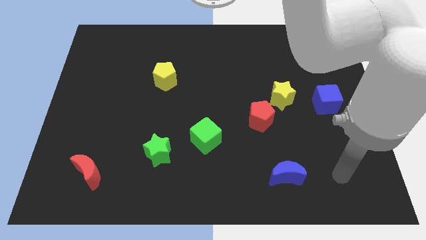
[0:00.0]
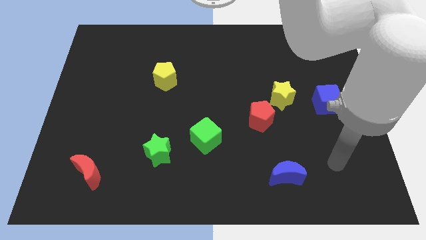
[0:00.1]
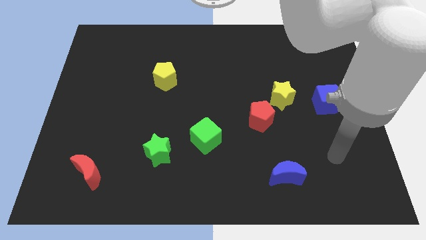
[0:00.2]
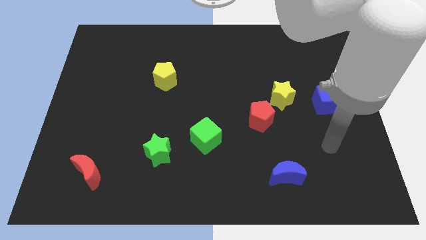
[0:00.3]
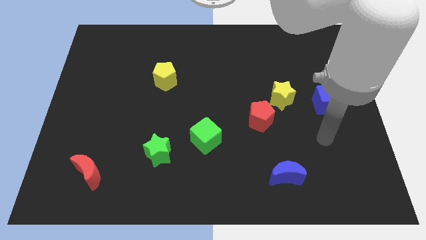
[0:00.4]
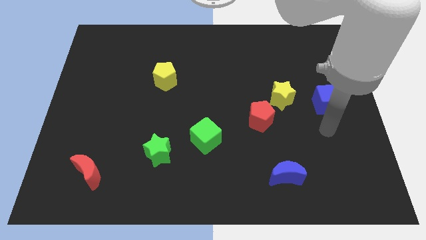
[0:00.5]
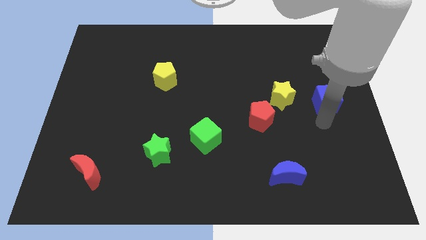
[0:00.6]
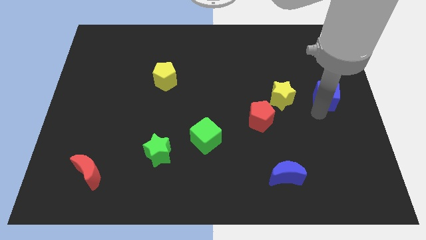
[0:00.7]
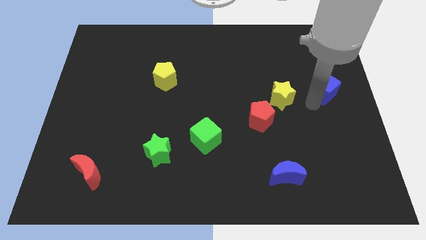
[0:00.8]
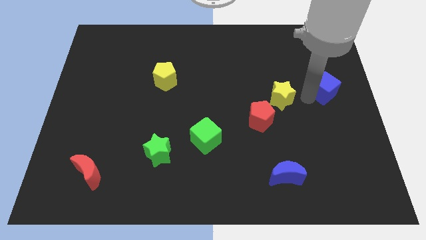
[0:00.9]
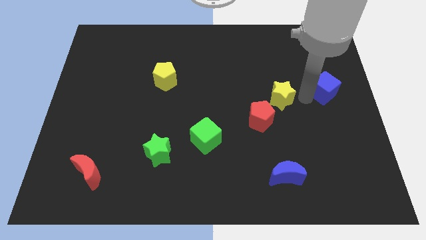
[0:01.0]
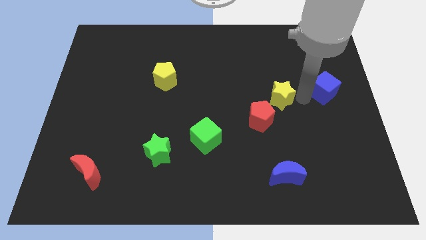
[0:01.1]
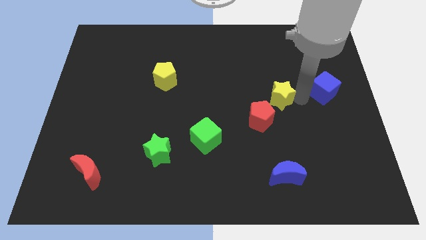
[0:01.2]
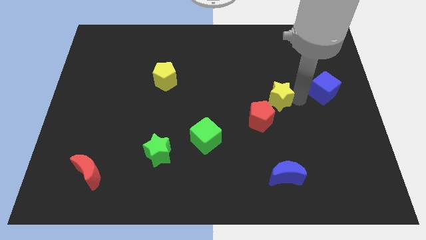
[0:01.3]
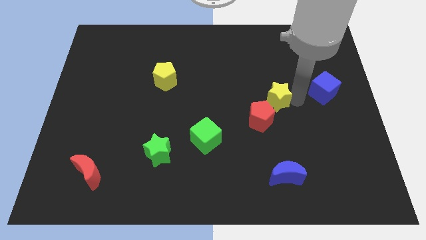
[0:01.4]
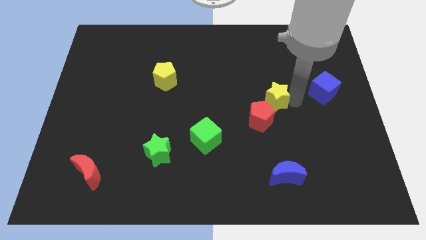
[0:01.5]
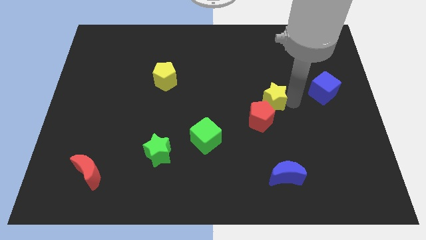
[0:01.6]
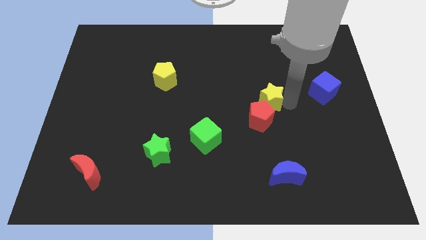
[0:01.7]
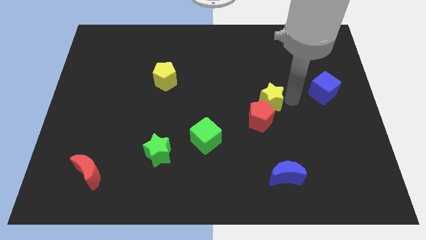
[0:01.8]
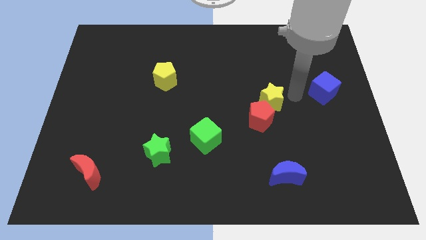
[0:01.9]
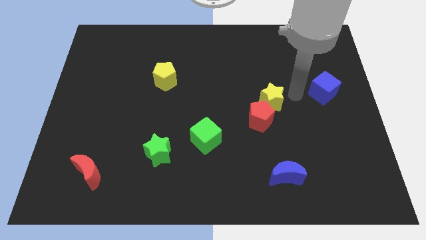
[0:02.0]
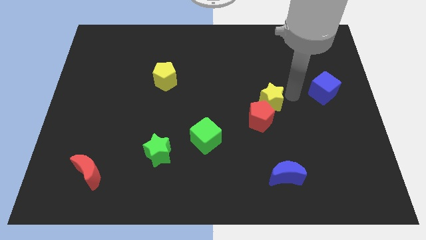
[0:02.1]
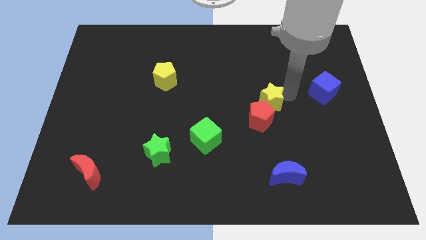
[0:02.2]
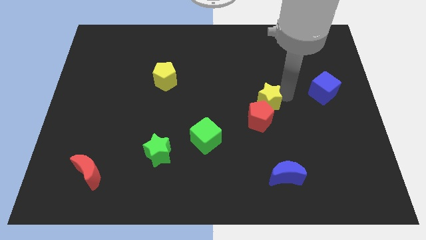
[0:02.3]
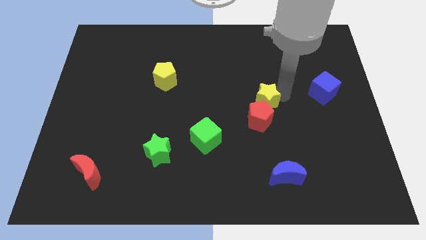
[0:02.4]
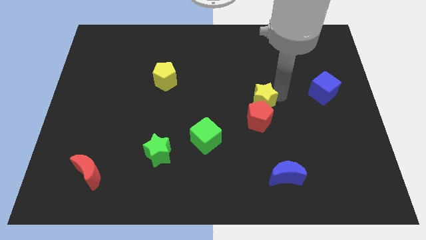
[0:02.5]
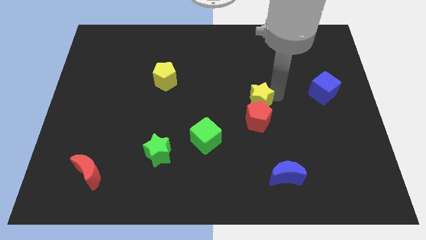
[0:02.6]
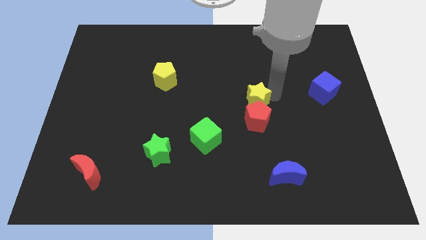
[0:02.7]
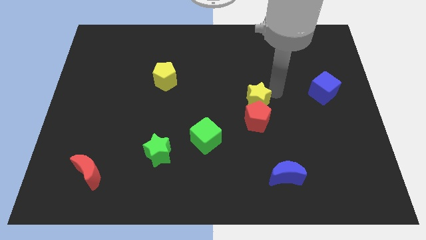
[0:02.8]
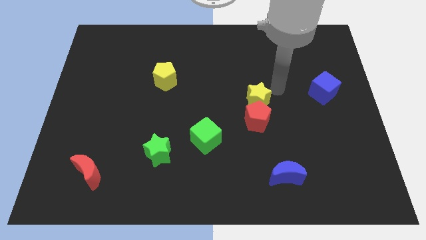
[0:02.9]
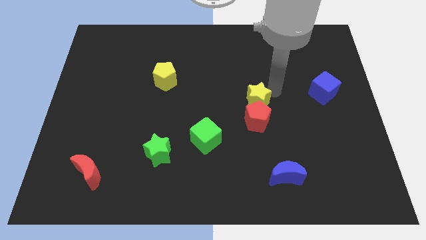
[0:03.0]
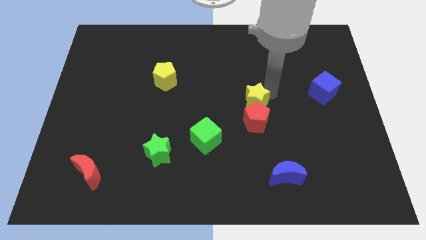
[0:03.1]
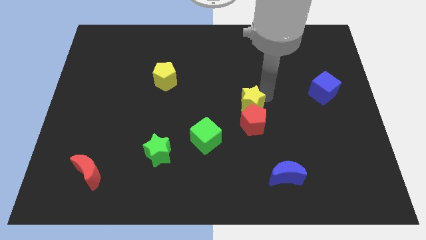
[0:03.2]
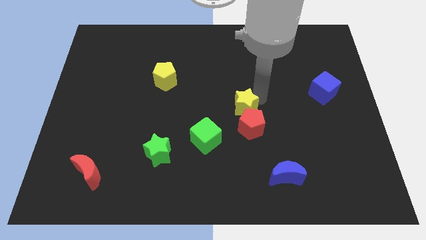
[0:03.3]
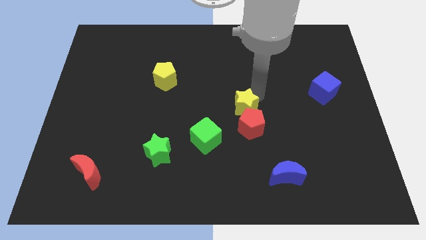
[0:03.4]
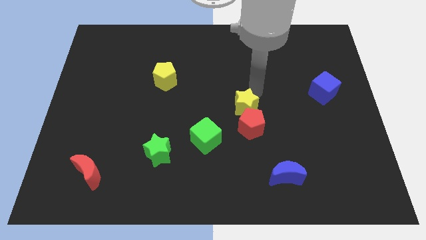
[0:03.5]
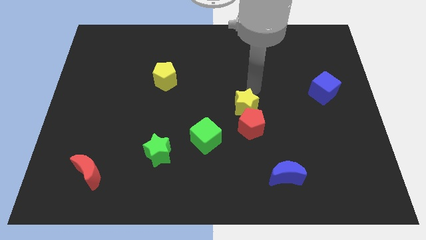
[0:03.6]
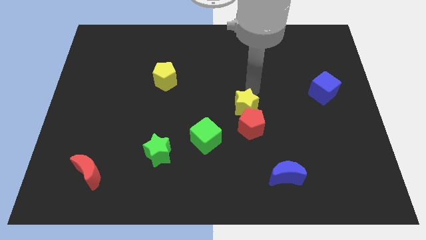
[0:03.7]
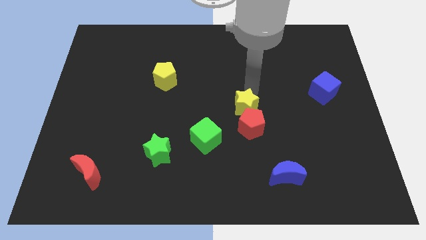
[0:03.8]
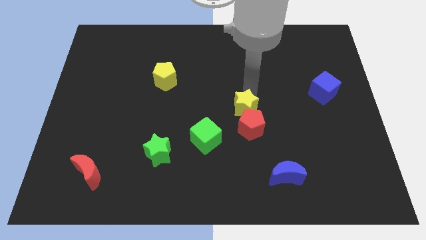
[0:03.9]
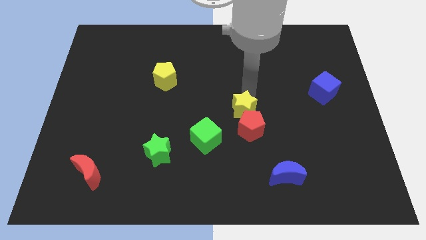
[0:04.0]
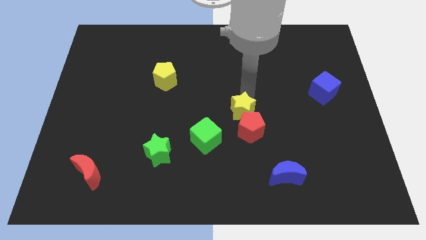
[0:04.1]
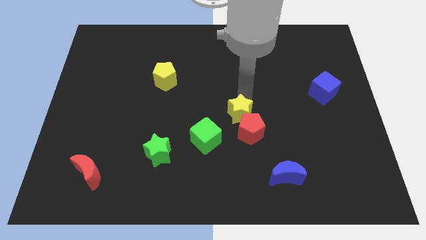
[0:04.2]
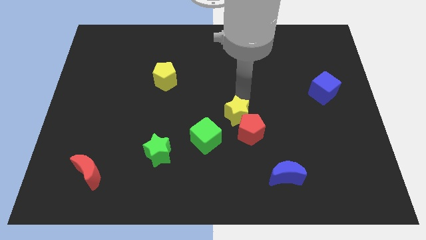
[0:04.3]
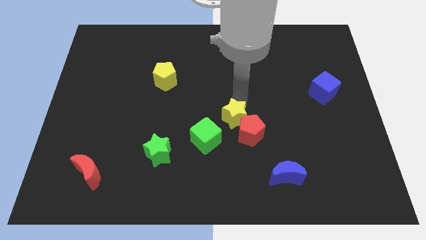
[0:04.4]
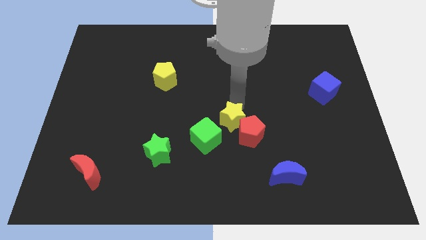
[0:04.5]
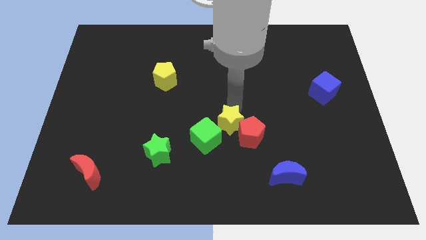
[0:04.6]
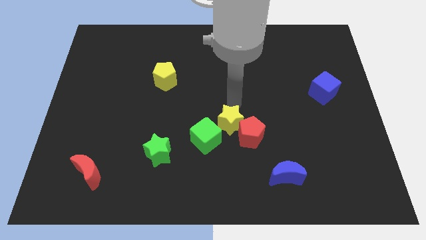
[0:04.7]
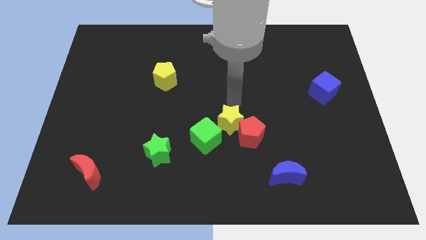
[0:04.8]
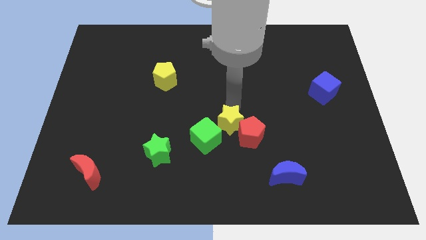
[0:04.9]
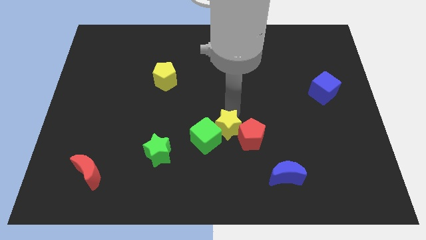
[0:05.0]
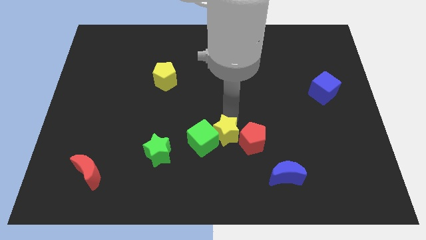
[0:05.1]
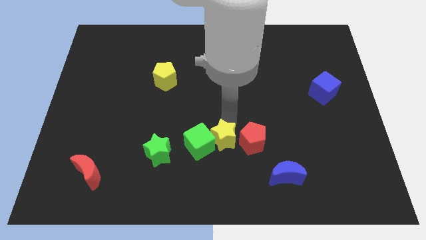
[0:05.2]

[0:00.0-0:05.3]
slide the yellow star right of the green star

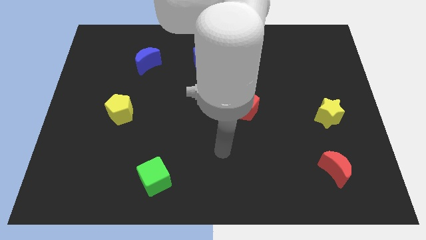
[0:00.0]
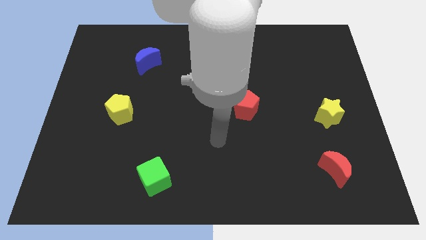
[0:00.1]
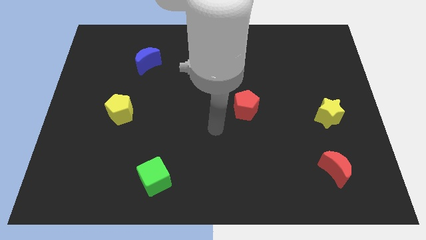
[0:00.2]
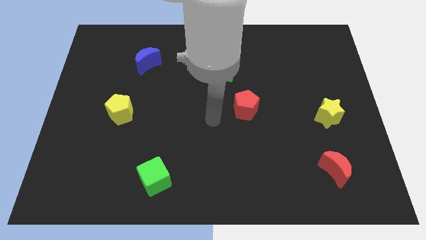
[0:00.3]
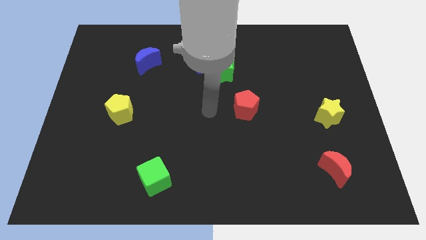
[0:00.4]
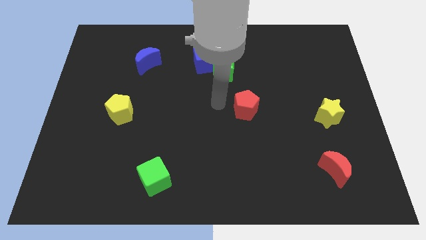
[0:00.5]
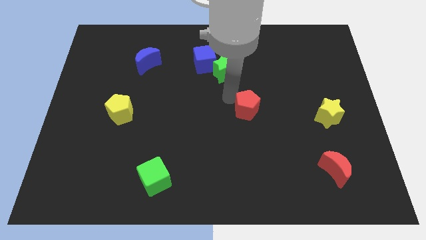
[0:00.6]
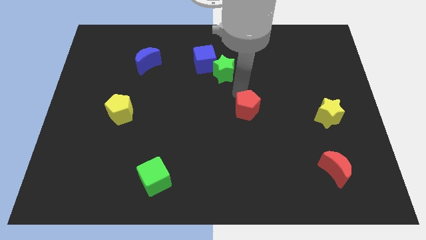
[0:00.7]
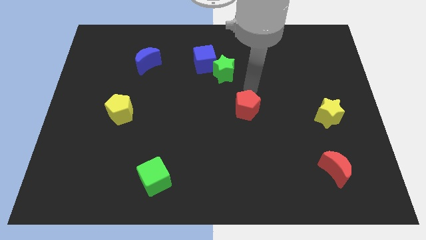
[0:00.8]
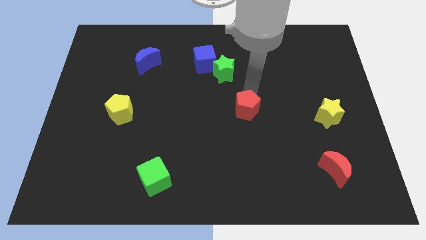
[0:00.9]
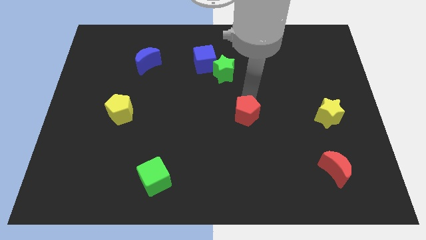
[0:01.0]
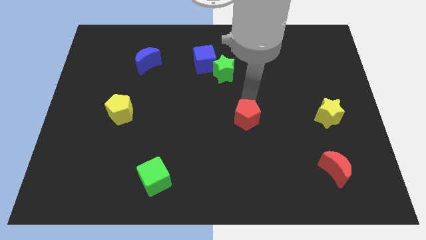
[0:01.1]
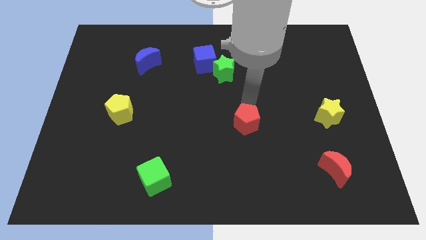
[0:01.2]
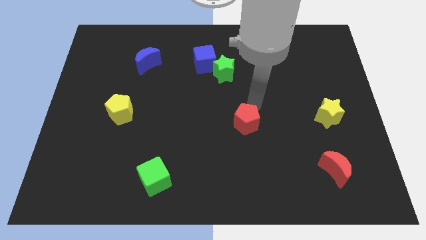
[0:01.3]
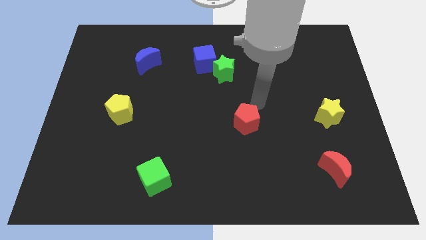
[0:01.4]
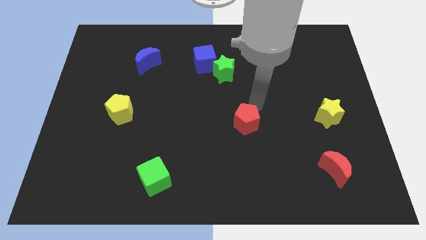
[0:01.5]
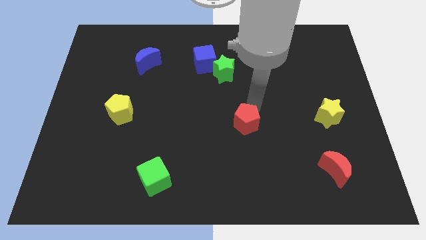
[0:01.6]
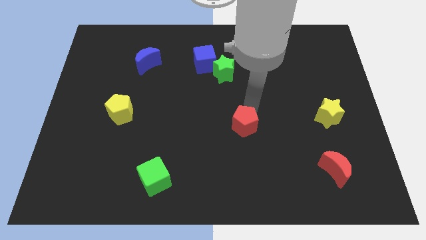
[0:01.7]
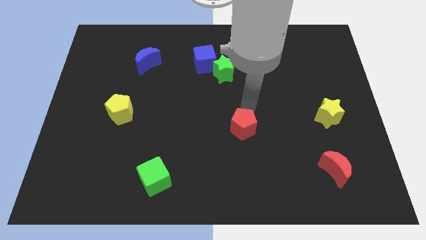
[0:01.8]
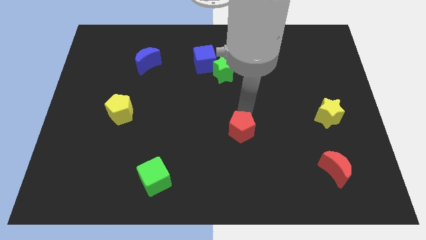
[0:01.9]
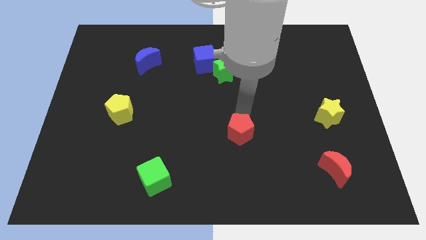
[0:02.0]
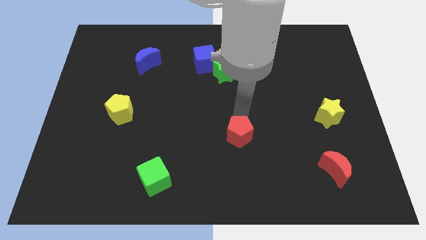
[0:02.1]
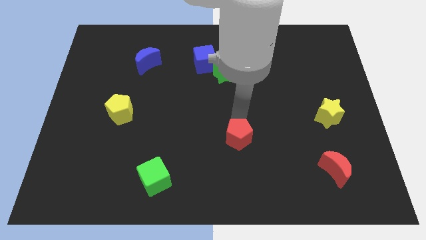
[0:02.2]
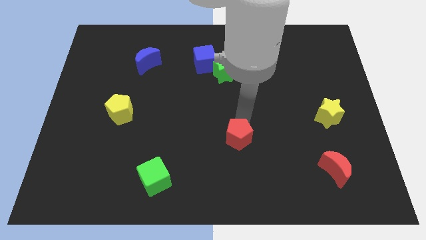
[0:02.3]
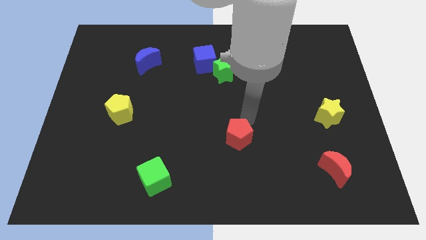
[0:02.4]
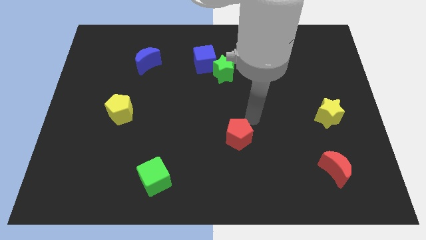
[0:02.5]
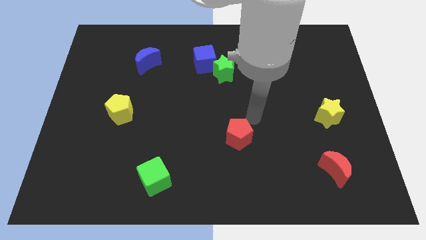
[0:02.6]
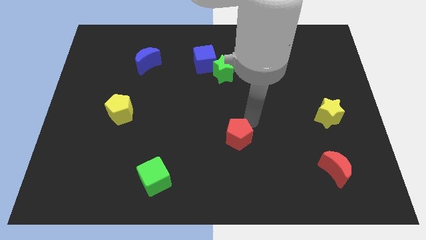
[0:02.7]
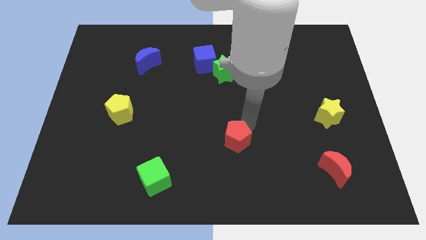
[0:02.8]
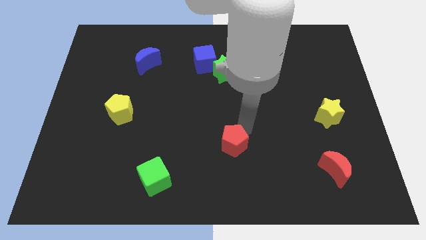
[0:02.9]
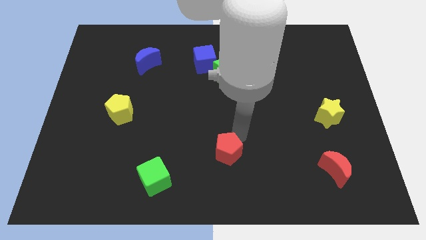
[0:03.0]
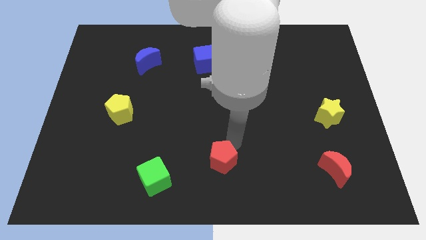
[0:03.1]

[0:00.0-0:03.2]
move the red pentagon to the right side of the green cube
